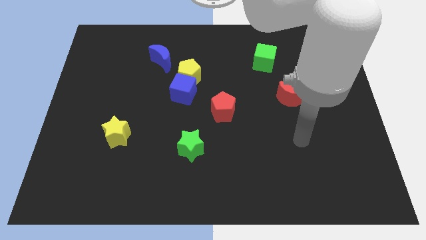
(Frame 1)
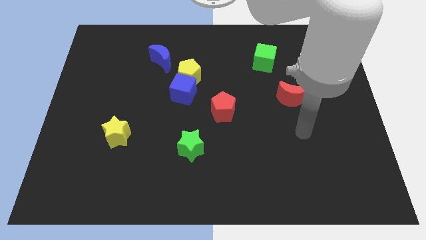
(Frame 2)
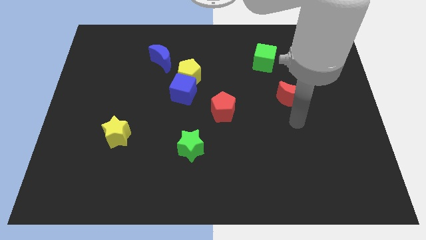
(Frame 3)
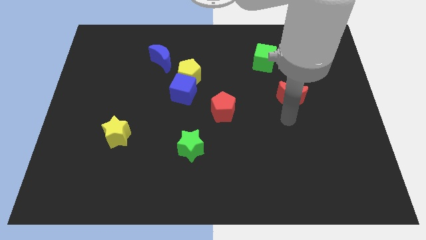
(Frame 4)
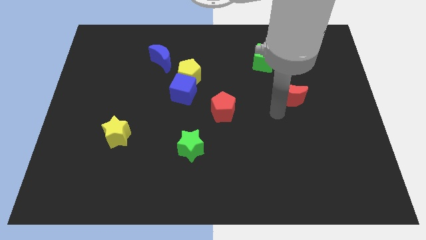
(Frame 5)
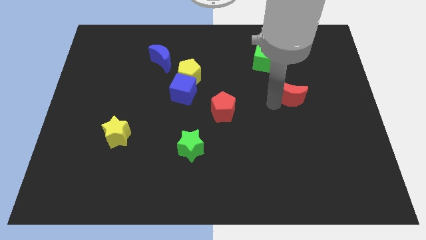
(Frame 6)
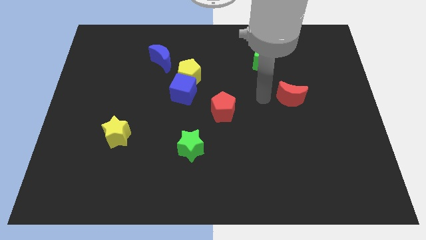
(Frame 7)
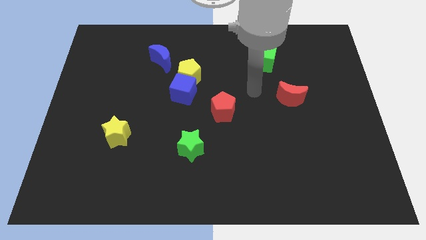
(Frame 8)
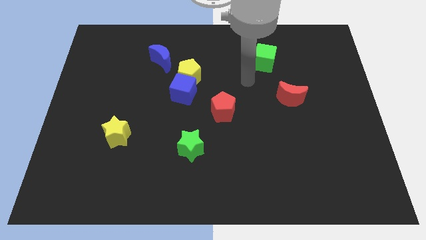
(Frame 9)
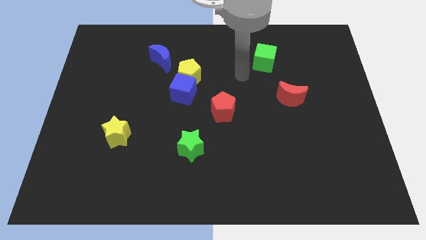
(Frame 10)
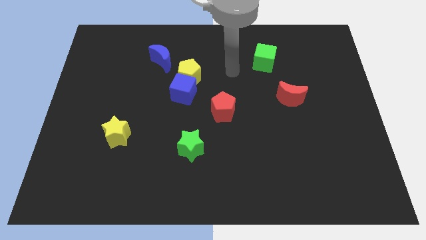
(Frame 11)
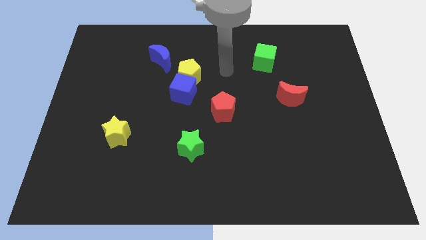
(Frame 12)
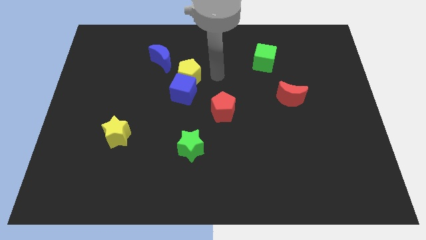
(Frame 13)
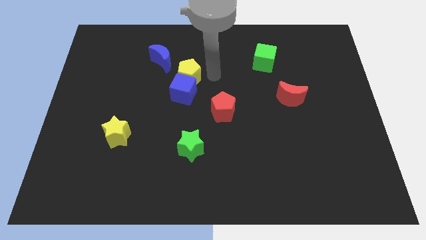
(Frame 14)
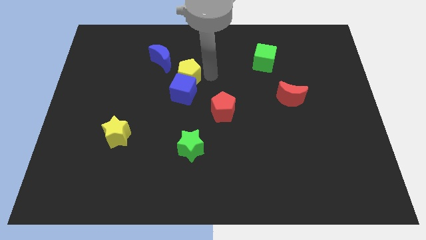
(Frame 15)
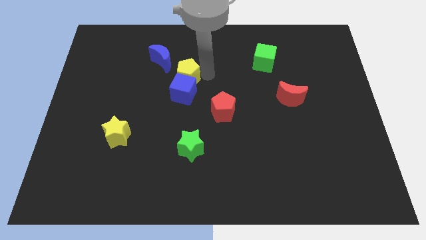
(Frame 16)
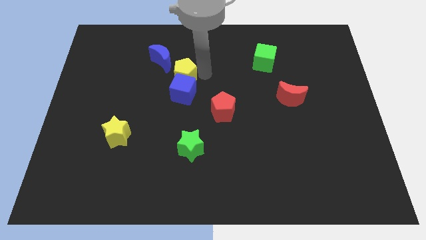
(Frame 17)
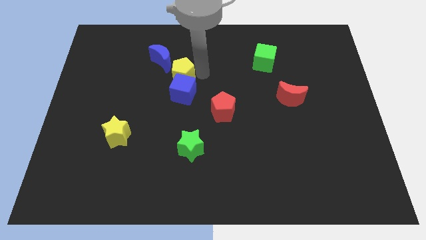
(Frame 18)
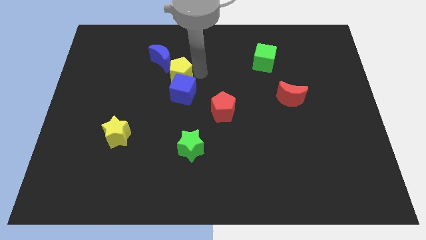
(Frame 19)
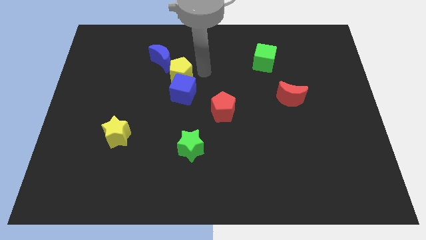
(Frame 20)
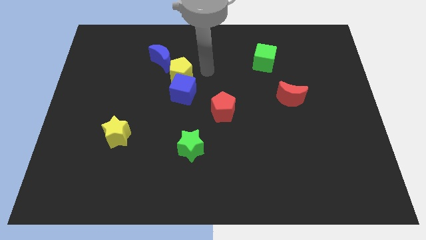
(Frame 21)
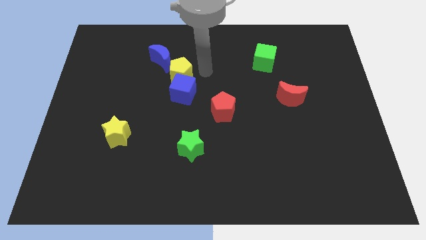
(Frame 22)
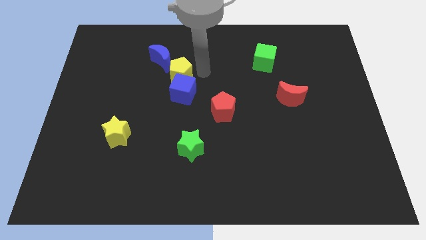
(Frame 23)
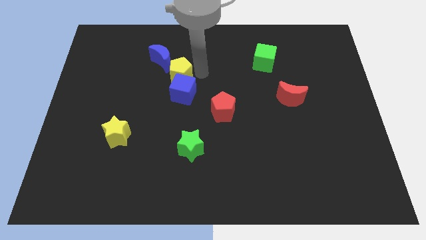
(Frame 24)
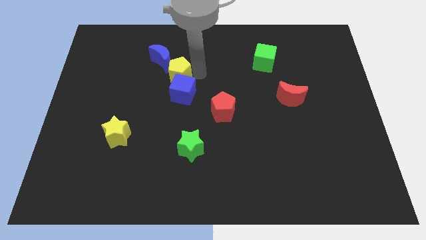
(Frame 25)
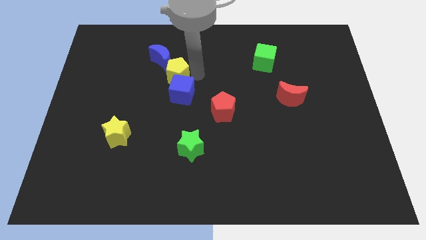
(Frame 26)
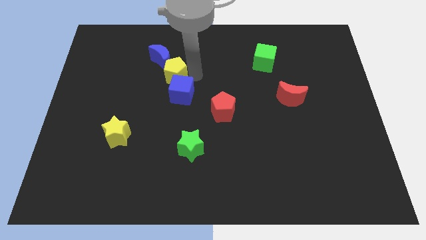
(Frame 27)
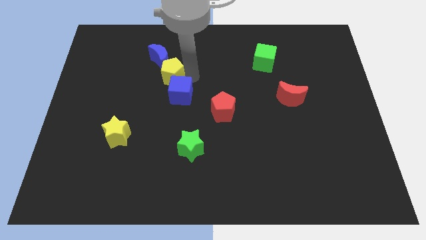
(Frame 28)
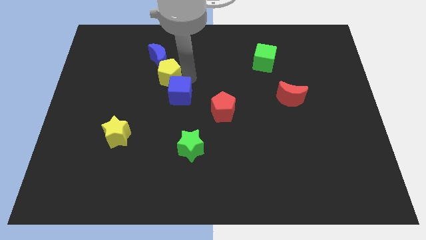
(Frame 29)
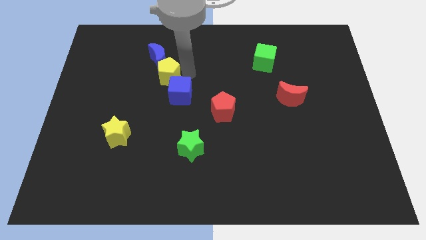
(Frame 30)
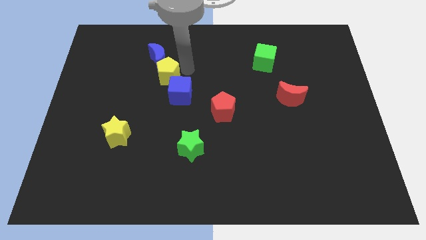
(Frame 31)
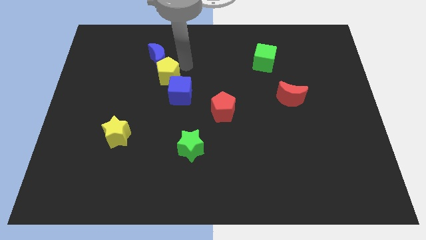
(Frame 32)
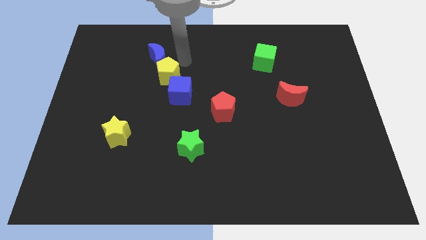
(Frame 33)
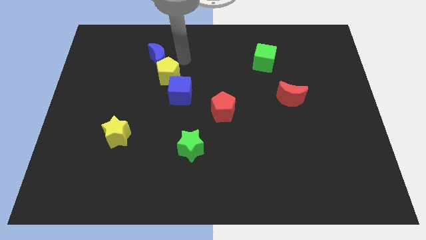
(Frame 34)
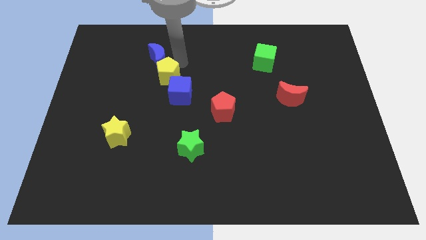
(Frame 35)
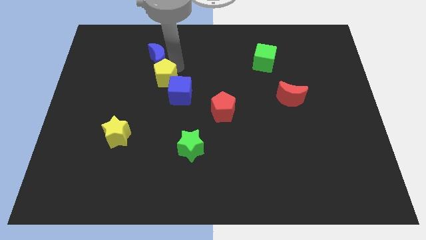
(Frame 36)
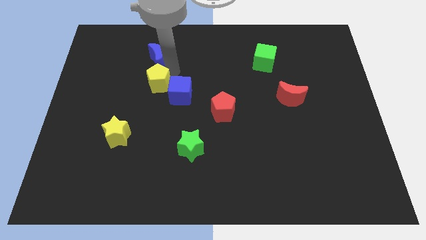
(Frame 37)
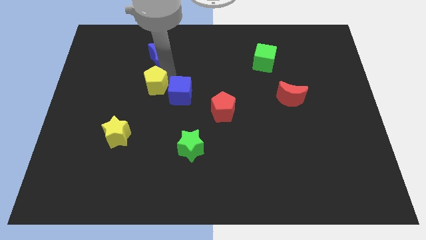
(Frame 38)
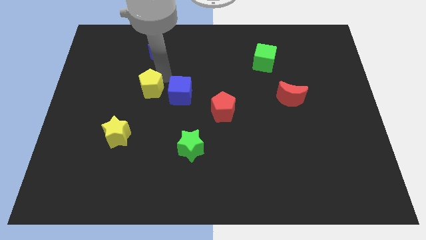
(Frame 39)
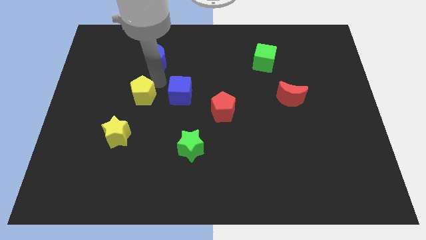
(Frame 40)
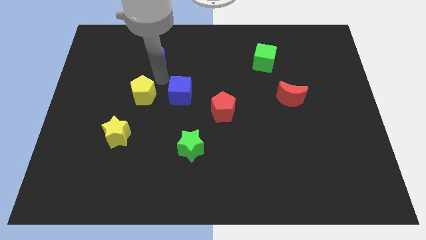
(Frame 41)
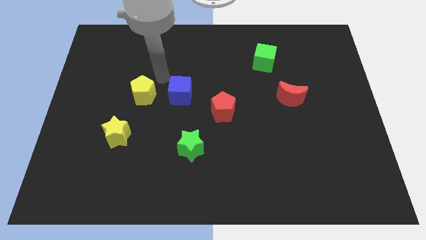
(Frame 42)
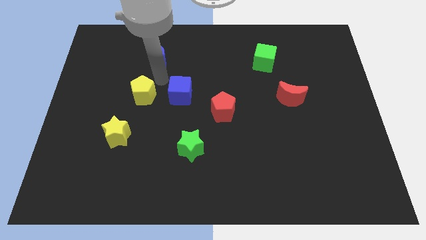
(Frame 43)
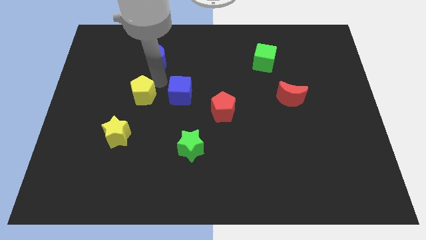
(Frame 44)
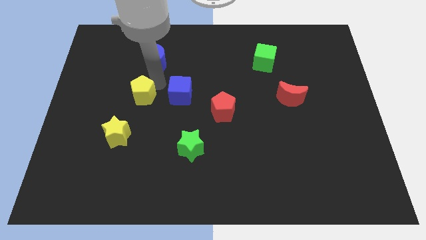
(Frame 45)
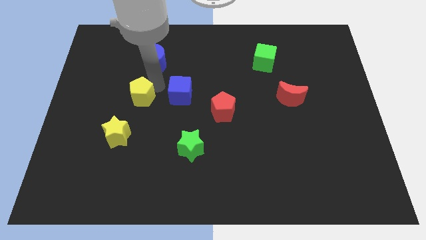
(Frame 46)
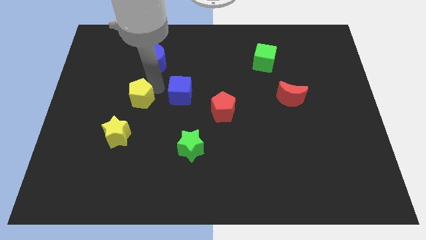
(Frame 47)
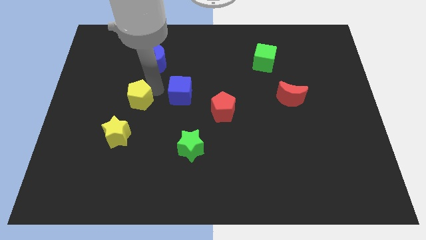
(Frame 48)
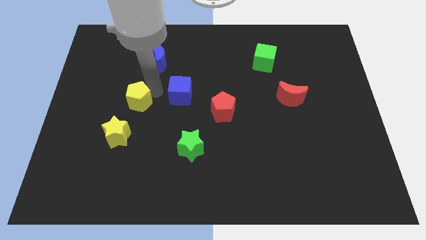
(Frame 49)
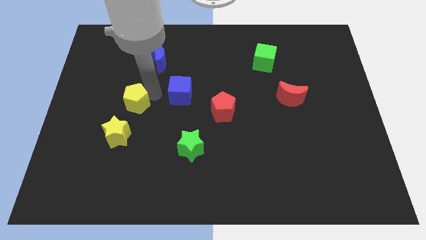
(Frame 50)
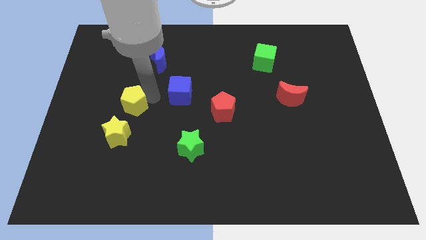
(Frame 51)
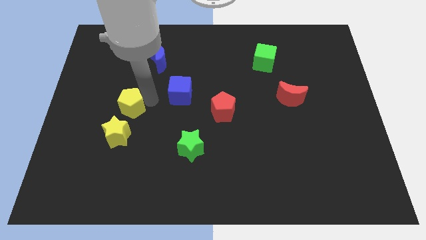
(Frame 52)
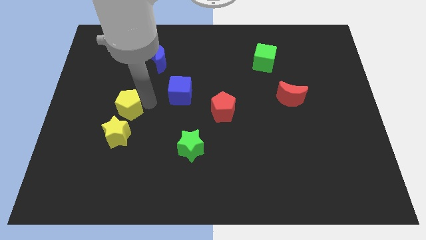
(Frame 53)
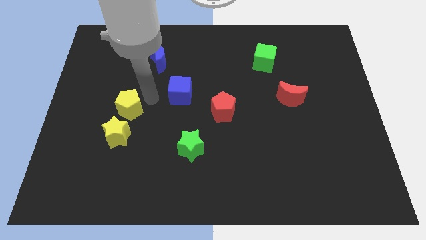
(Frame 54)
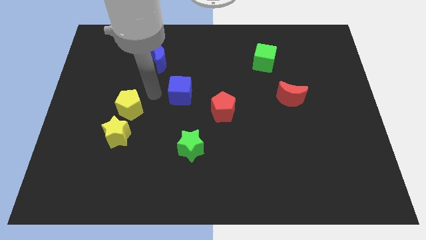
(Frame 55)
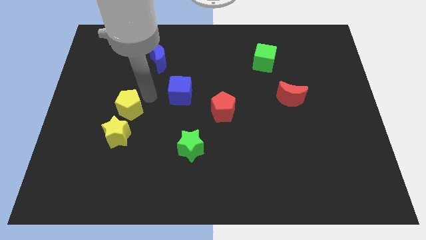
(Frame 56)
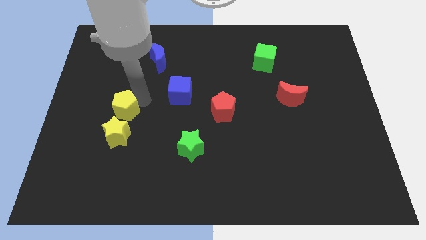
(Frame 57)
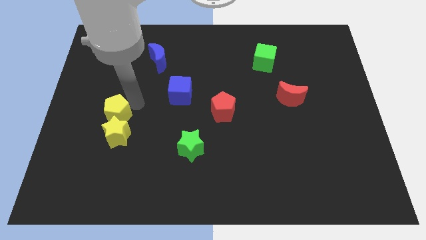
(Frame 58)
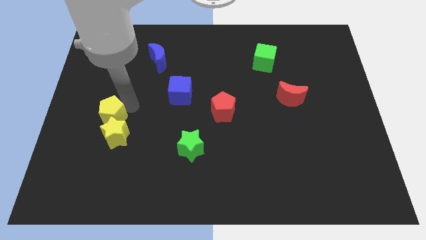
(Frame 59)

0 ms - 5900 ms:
push the yellow pentagon downwards and to the left diagonally

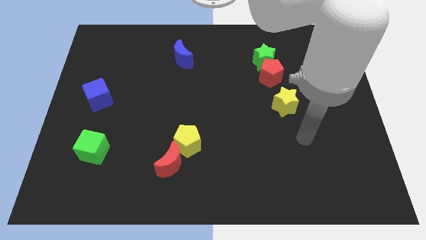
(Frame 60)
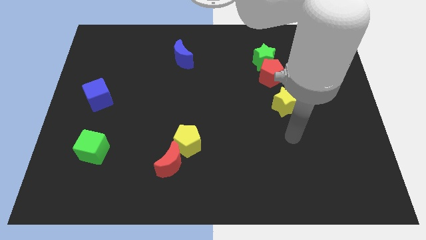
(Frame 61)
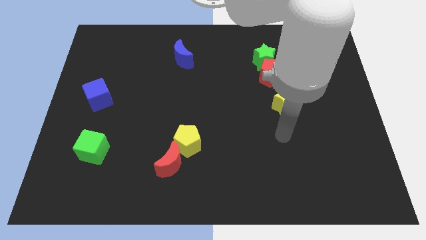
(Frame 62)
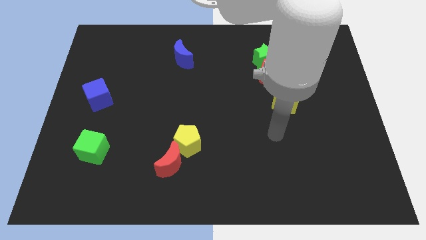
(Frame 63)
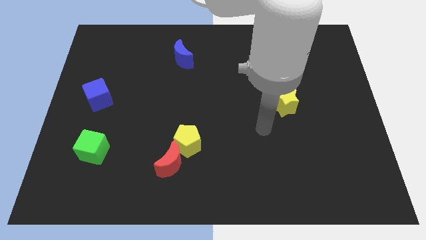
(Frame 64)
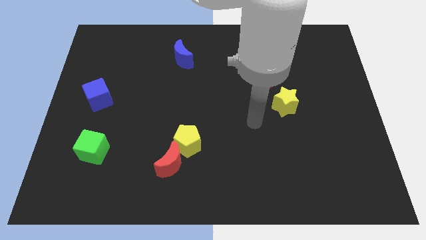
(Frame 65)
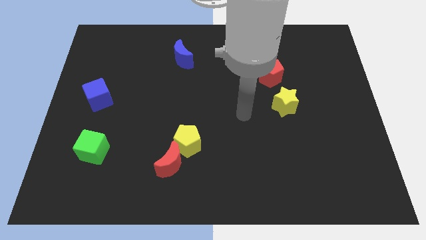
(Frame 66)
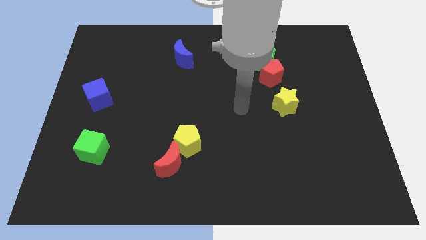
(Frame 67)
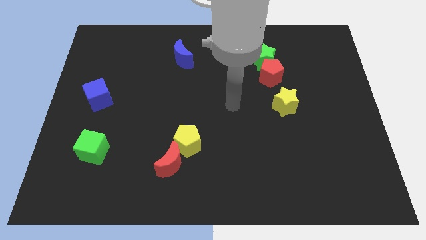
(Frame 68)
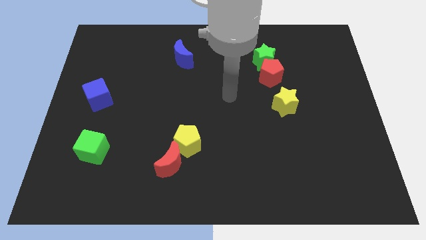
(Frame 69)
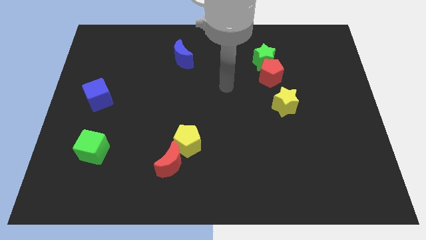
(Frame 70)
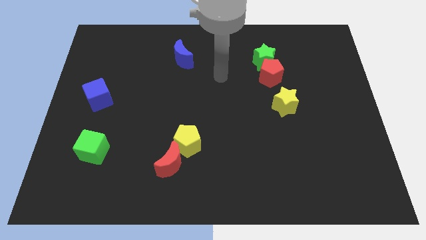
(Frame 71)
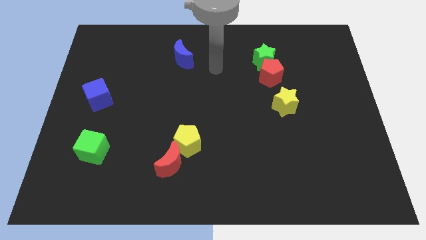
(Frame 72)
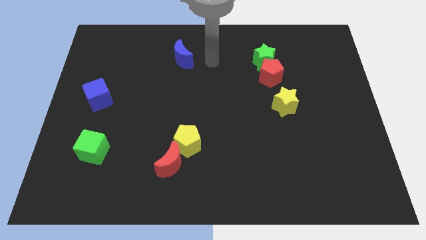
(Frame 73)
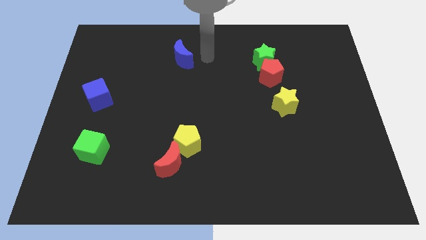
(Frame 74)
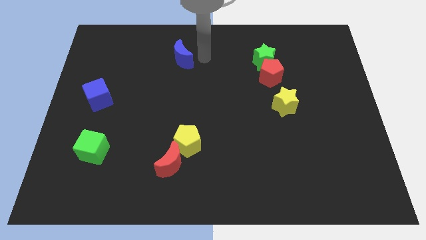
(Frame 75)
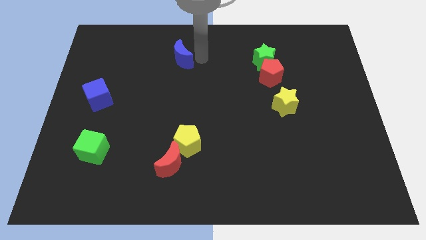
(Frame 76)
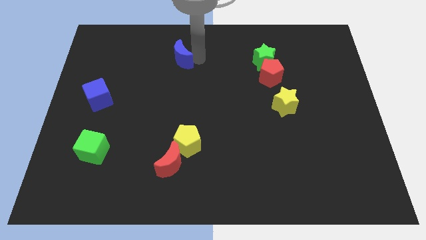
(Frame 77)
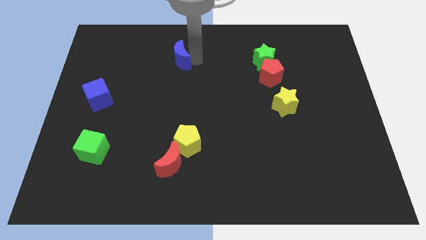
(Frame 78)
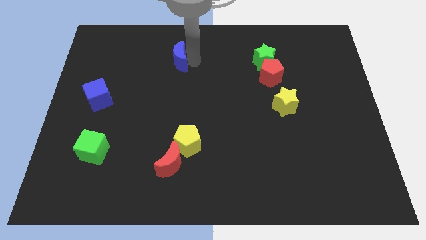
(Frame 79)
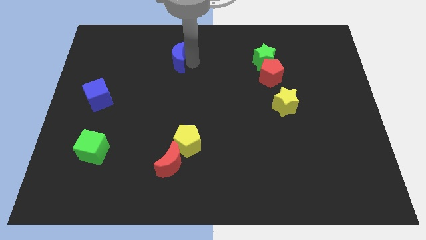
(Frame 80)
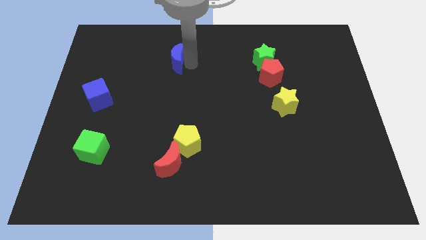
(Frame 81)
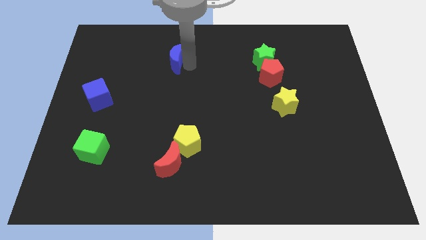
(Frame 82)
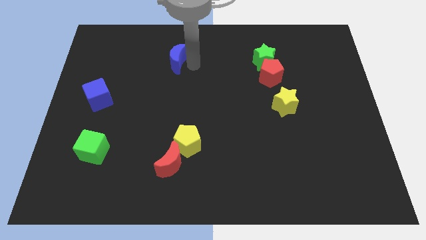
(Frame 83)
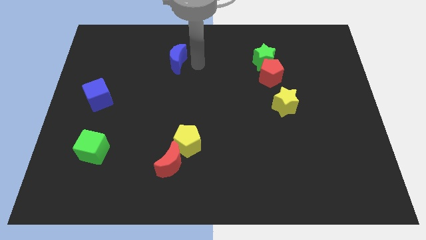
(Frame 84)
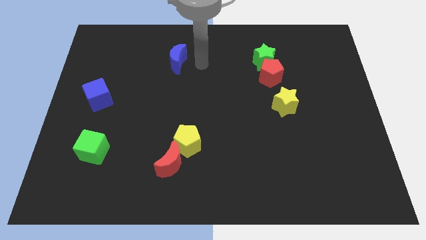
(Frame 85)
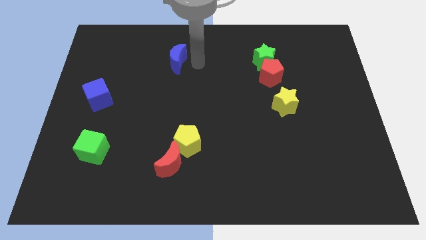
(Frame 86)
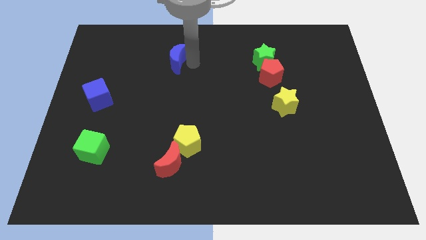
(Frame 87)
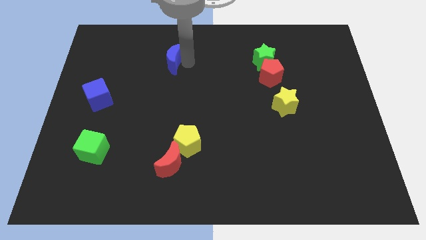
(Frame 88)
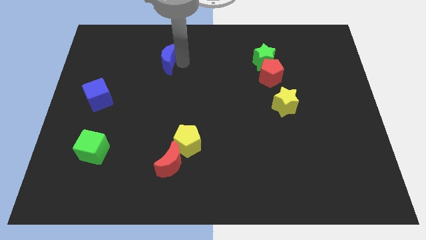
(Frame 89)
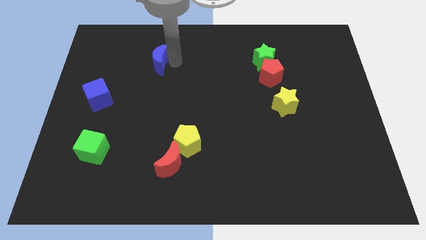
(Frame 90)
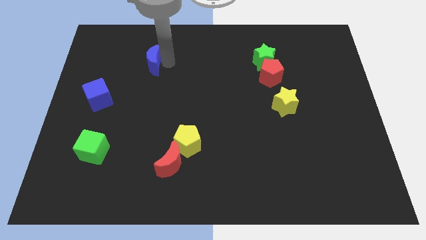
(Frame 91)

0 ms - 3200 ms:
slightly slide the blue moon left
